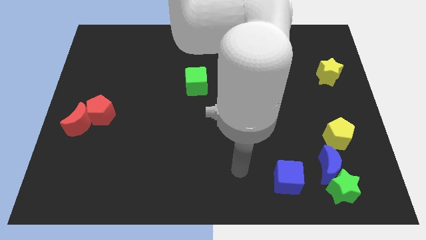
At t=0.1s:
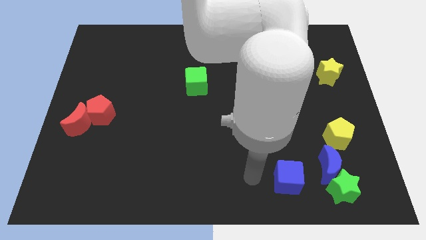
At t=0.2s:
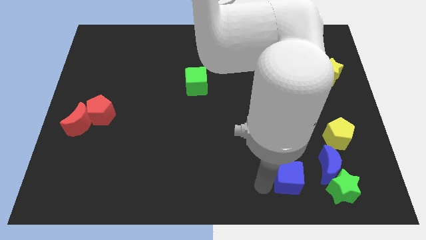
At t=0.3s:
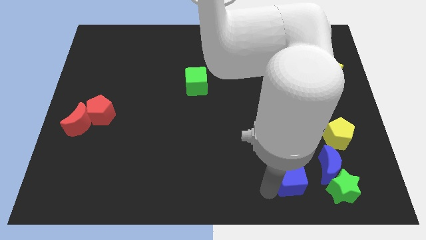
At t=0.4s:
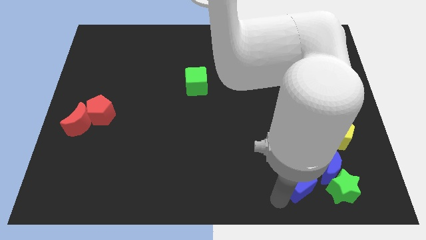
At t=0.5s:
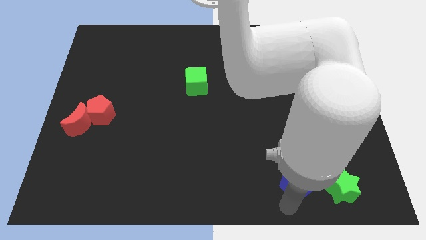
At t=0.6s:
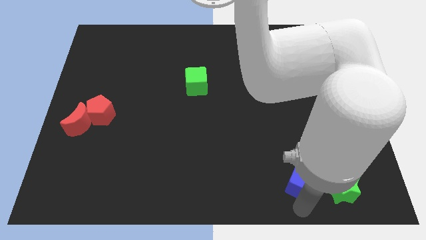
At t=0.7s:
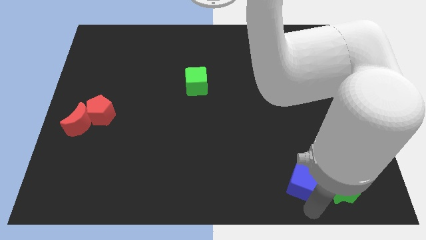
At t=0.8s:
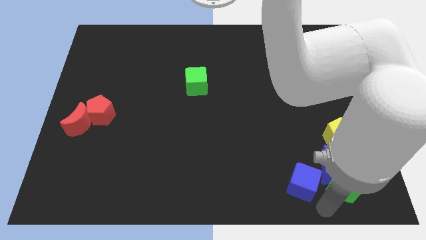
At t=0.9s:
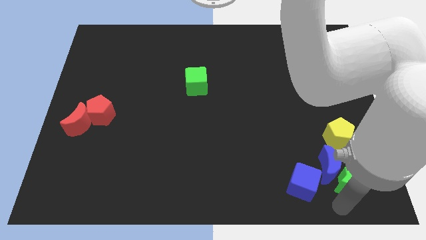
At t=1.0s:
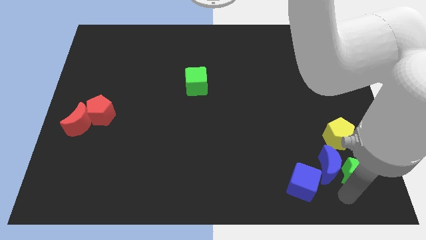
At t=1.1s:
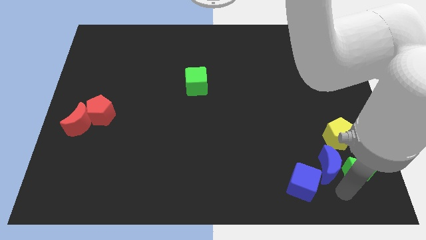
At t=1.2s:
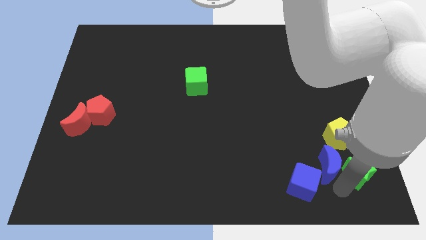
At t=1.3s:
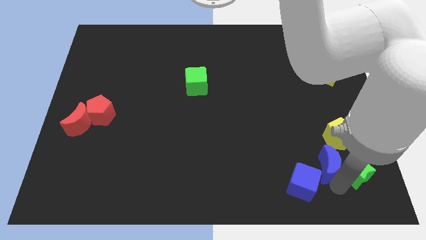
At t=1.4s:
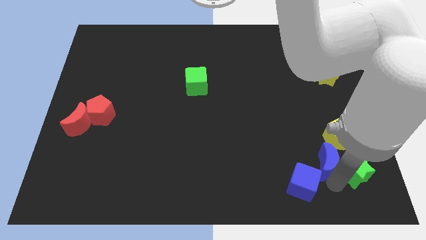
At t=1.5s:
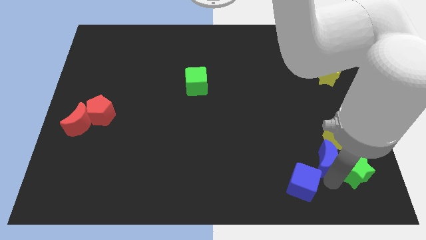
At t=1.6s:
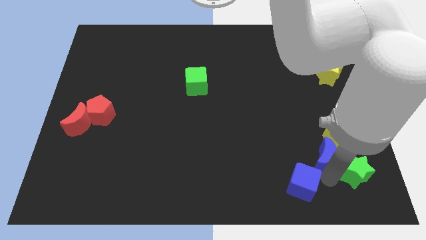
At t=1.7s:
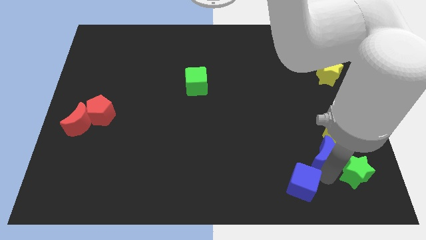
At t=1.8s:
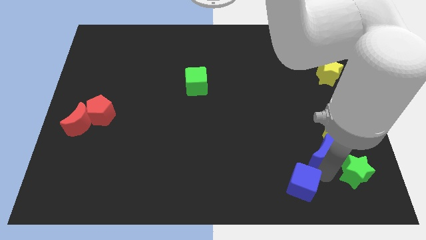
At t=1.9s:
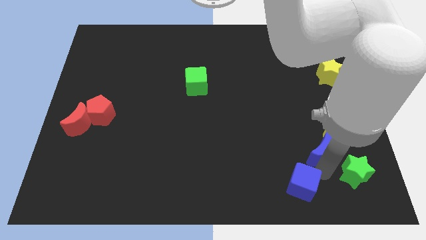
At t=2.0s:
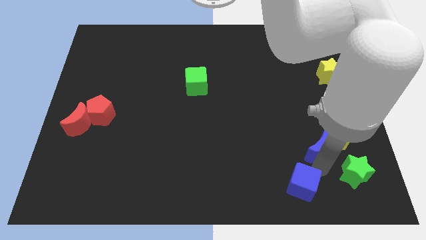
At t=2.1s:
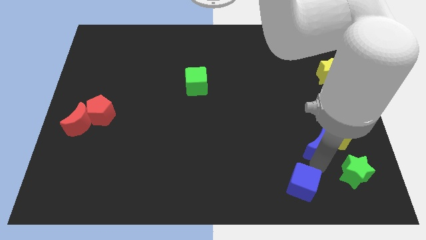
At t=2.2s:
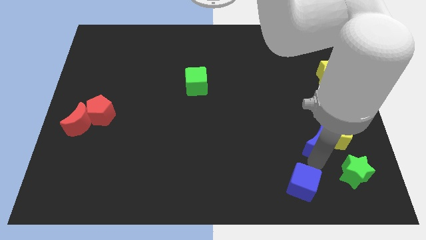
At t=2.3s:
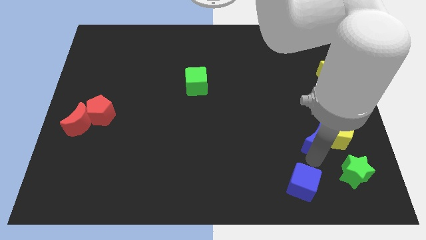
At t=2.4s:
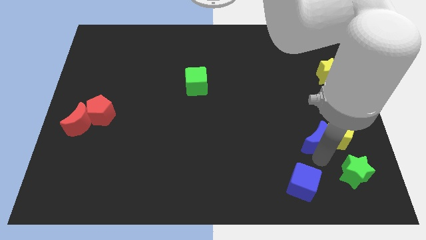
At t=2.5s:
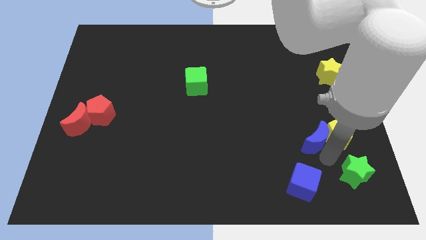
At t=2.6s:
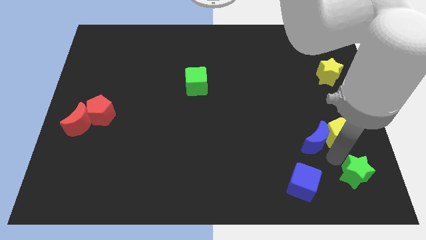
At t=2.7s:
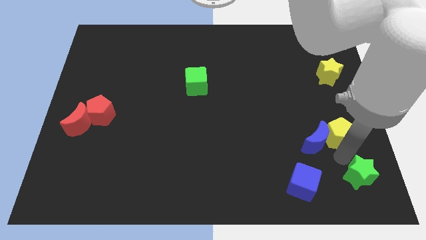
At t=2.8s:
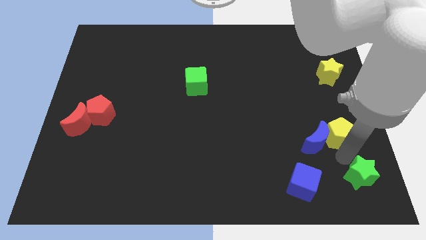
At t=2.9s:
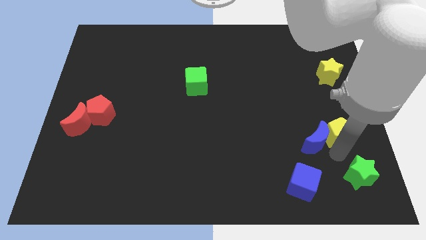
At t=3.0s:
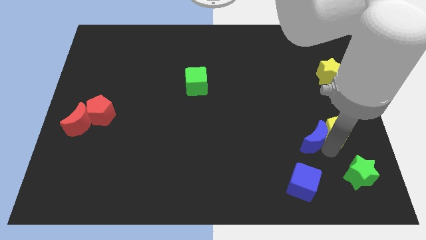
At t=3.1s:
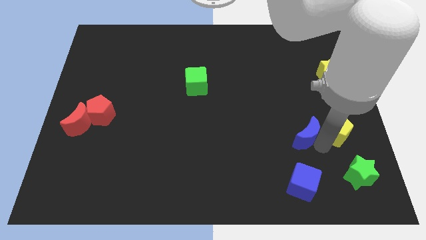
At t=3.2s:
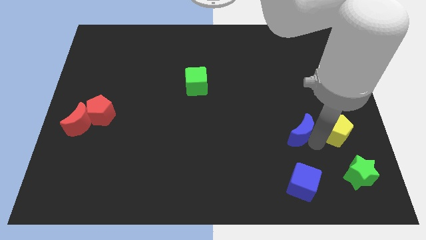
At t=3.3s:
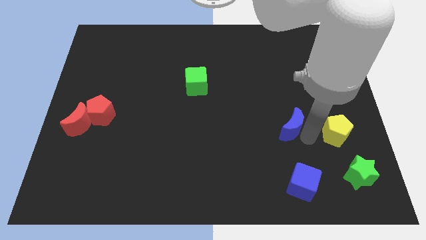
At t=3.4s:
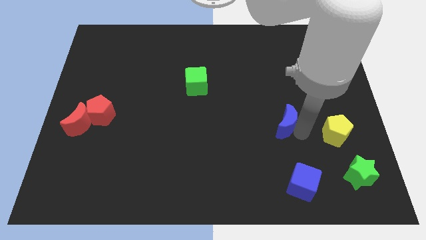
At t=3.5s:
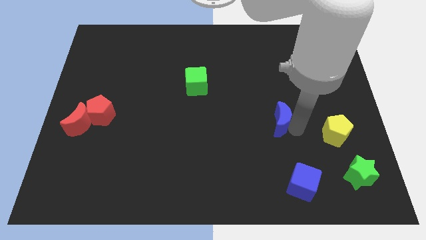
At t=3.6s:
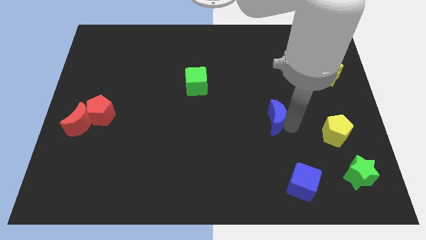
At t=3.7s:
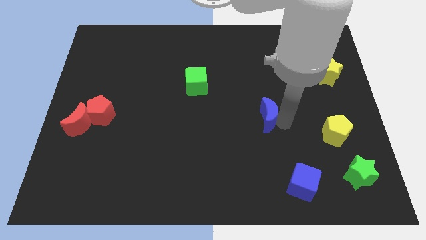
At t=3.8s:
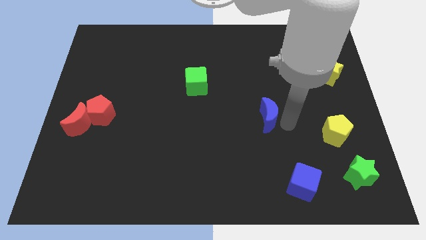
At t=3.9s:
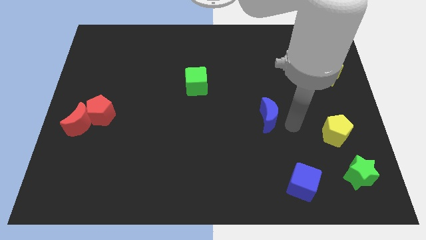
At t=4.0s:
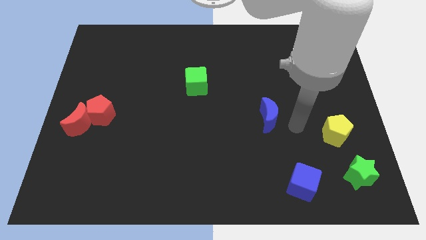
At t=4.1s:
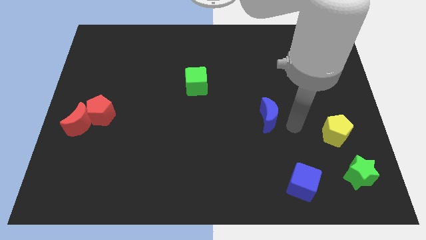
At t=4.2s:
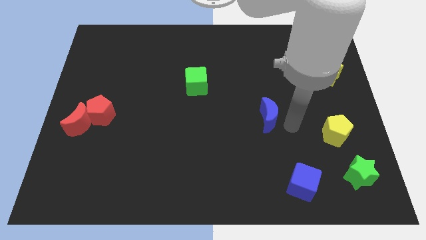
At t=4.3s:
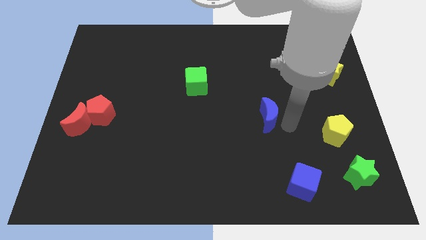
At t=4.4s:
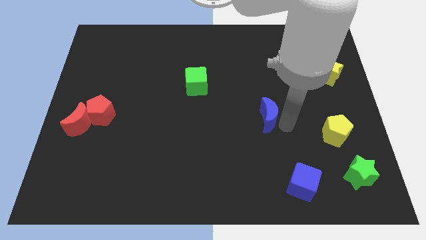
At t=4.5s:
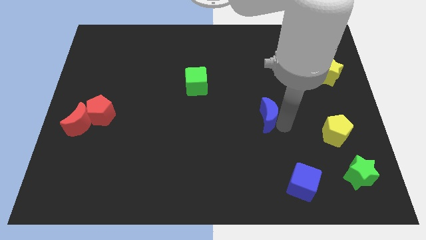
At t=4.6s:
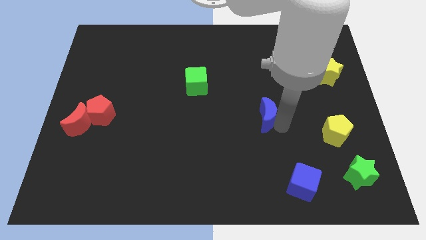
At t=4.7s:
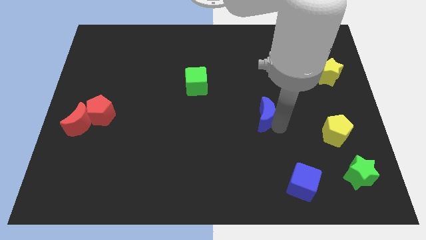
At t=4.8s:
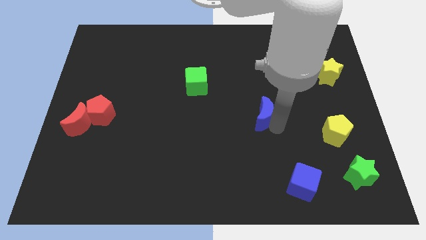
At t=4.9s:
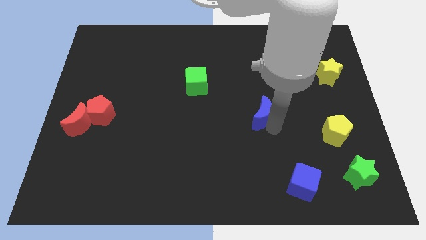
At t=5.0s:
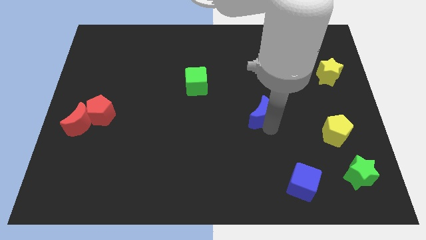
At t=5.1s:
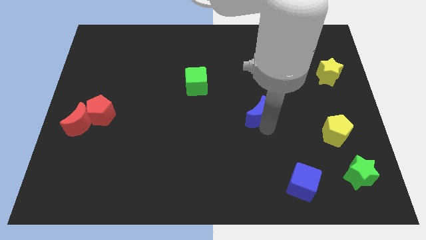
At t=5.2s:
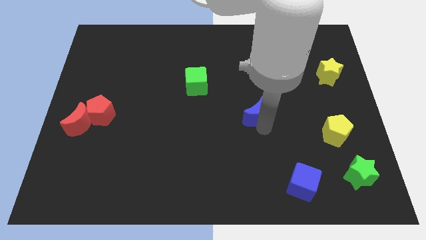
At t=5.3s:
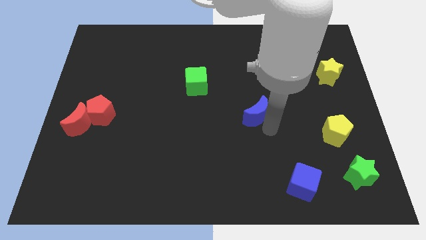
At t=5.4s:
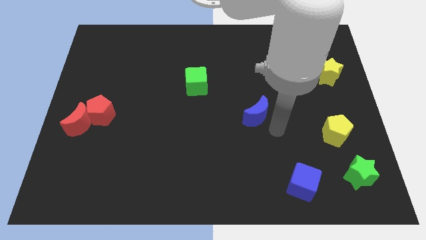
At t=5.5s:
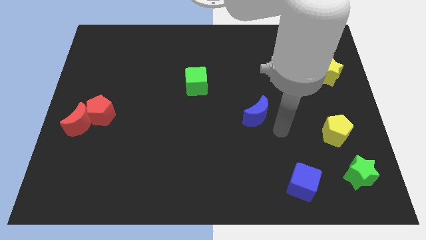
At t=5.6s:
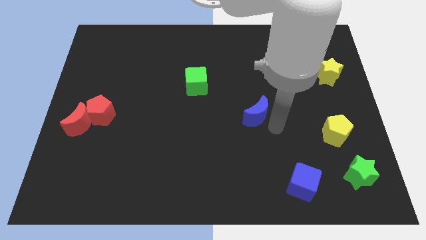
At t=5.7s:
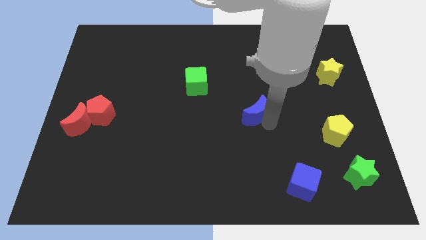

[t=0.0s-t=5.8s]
slide the blue moon up and left

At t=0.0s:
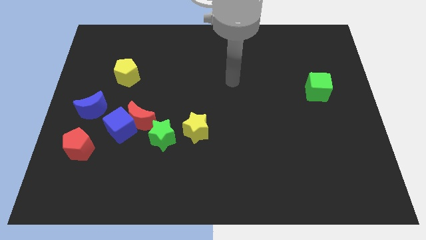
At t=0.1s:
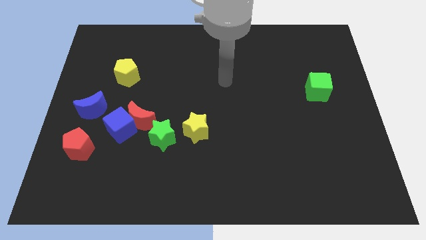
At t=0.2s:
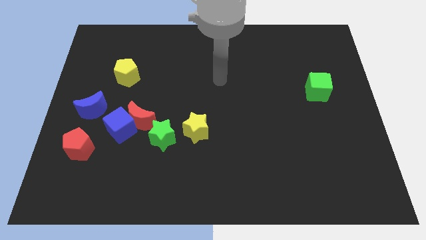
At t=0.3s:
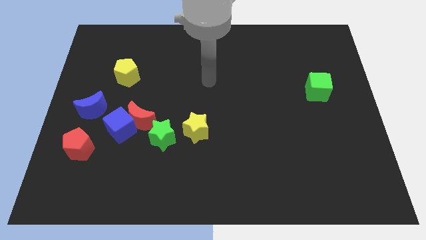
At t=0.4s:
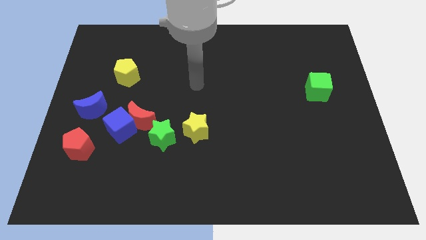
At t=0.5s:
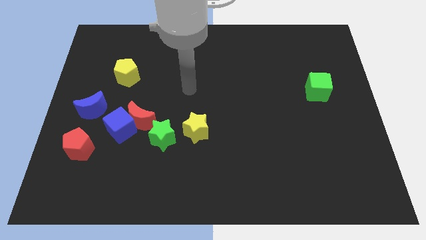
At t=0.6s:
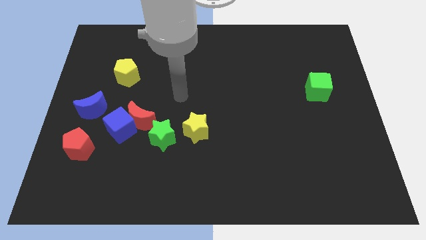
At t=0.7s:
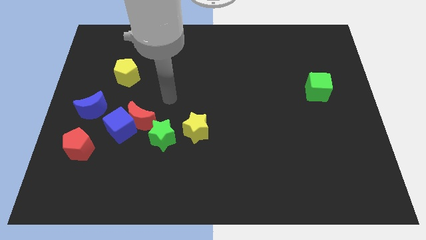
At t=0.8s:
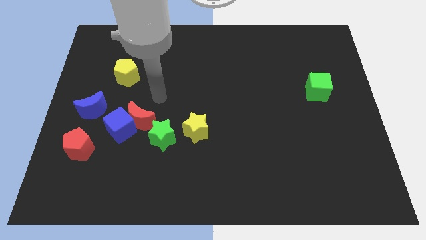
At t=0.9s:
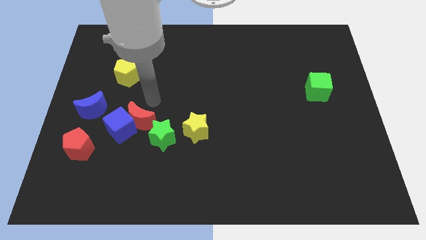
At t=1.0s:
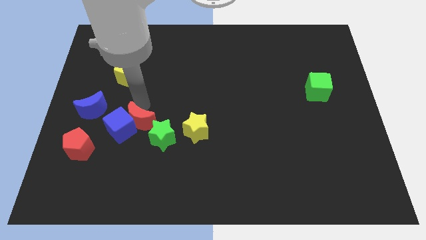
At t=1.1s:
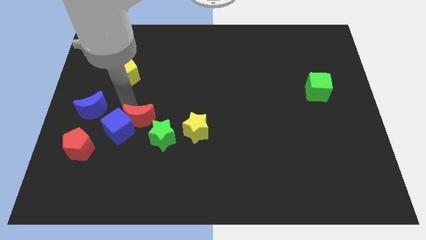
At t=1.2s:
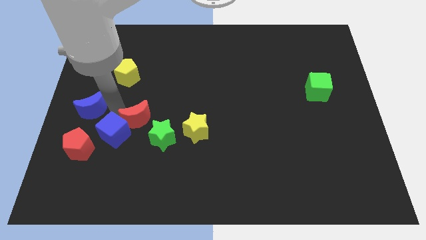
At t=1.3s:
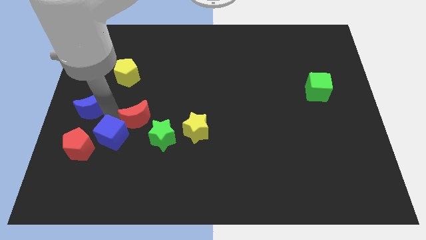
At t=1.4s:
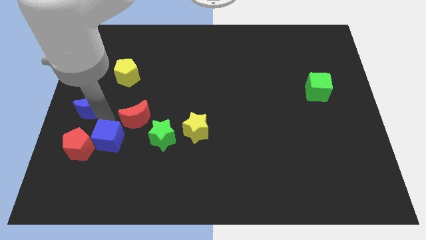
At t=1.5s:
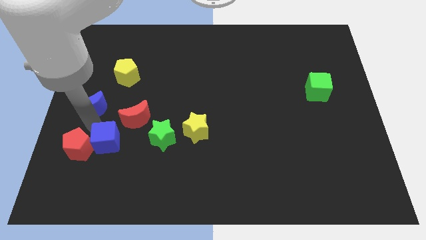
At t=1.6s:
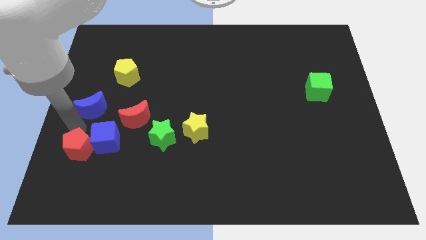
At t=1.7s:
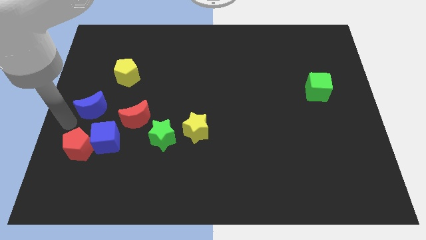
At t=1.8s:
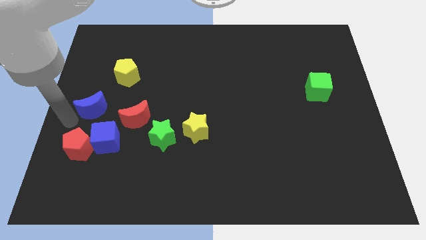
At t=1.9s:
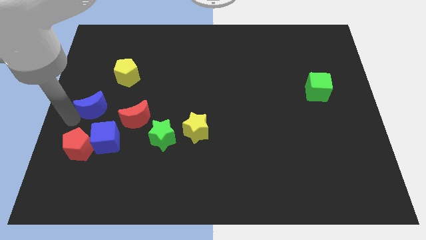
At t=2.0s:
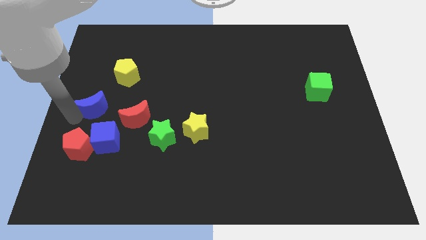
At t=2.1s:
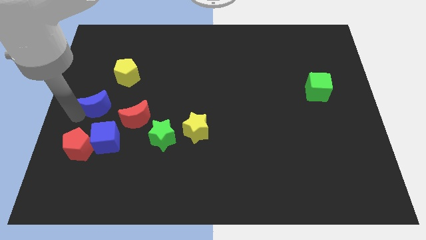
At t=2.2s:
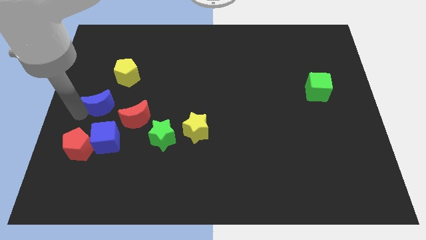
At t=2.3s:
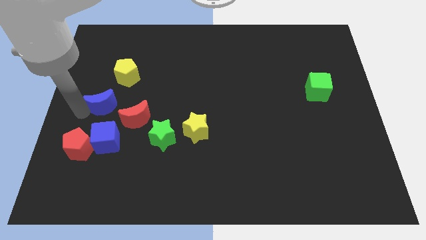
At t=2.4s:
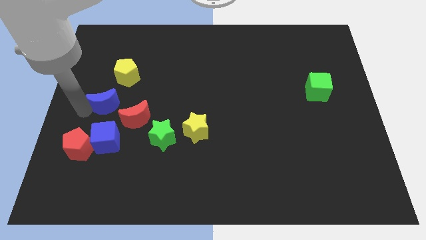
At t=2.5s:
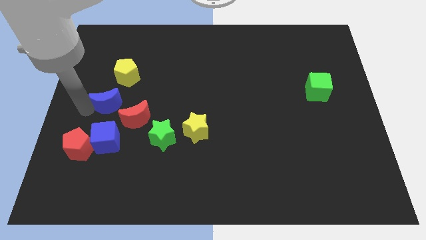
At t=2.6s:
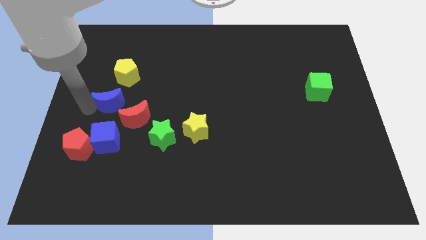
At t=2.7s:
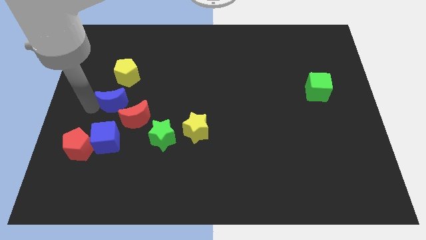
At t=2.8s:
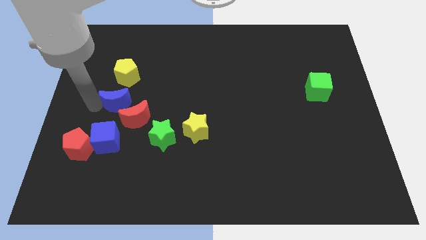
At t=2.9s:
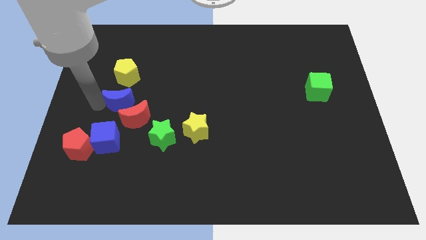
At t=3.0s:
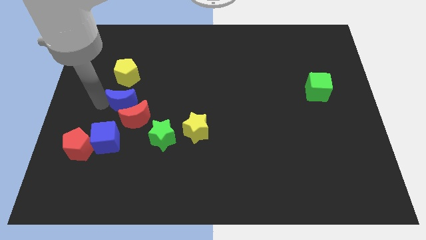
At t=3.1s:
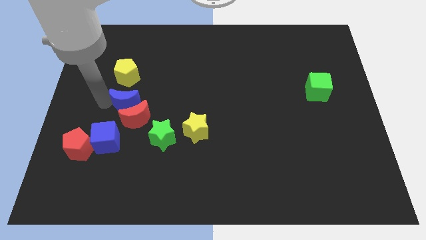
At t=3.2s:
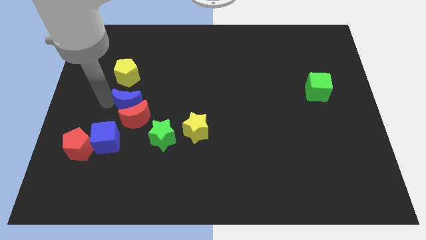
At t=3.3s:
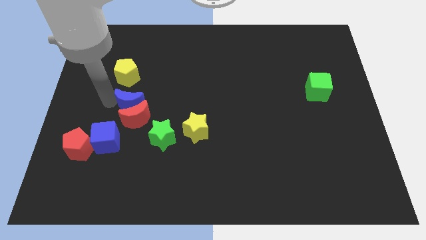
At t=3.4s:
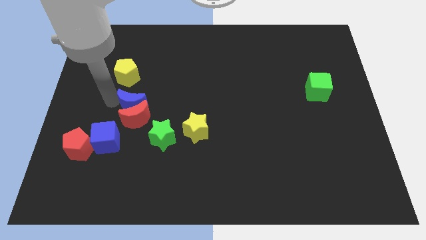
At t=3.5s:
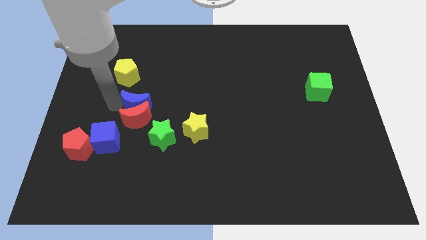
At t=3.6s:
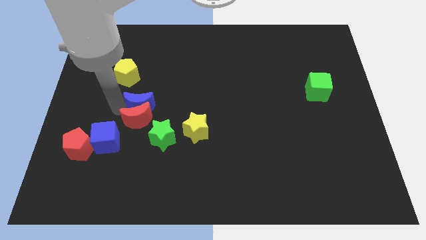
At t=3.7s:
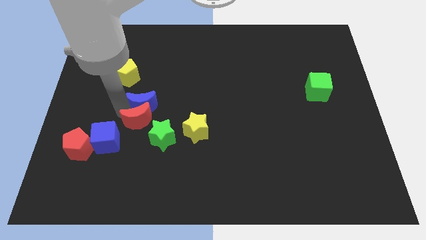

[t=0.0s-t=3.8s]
move the blue moon slightly upwards and to the right diagonally
